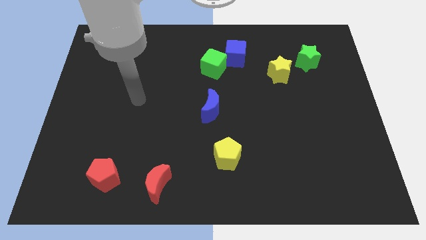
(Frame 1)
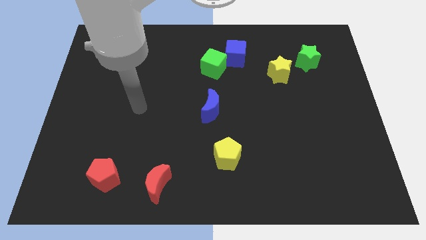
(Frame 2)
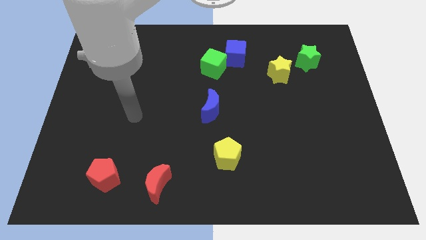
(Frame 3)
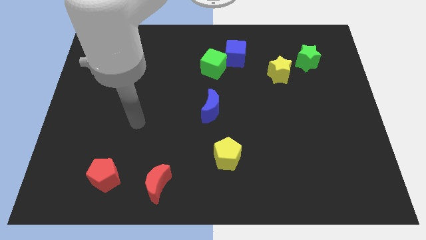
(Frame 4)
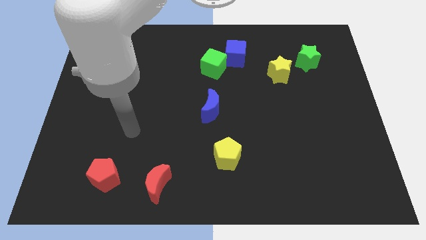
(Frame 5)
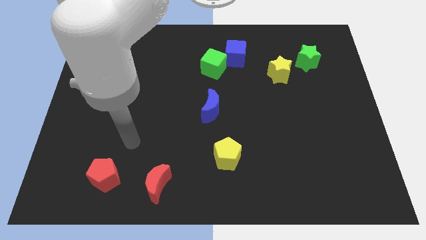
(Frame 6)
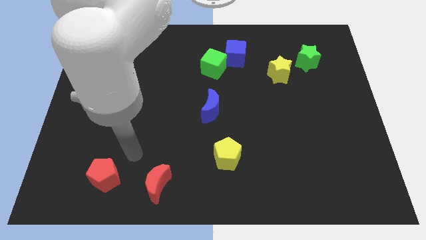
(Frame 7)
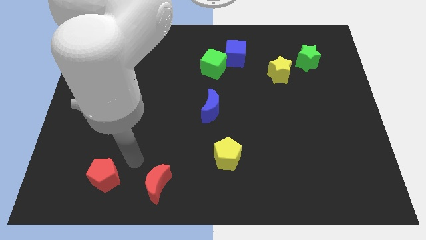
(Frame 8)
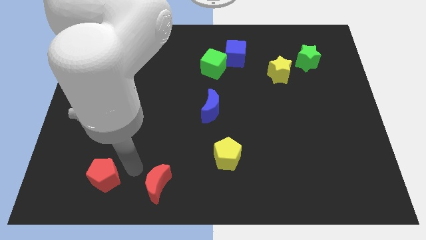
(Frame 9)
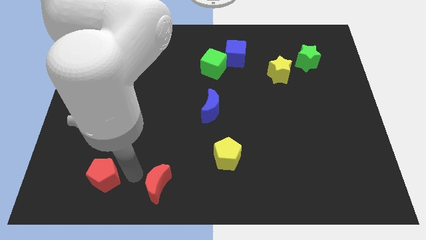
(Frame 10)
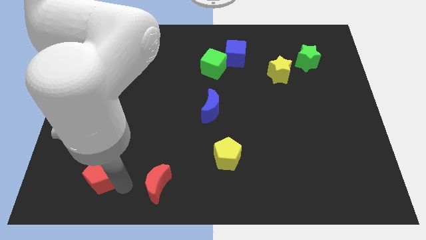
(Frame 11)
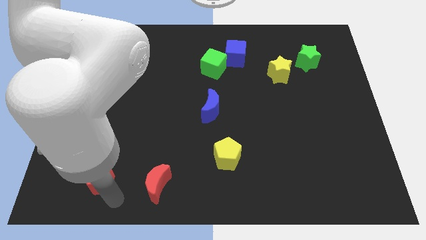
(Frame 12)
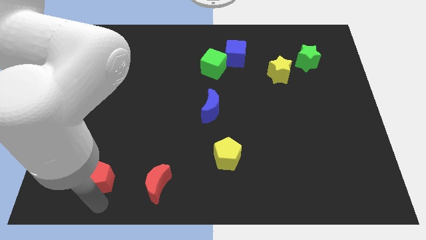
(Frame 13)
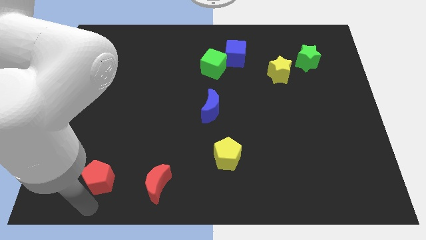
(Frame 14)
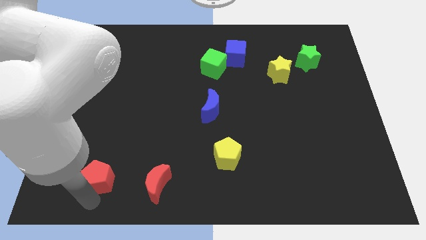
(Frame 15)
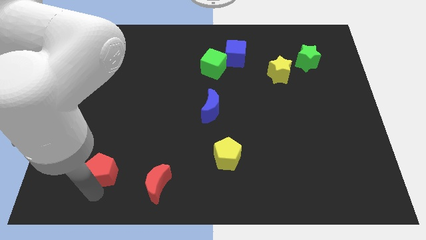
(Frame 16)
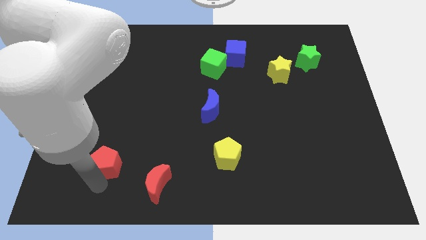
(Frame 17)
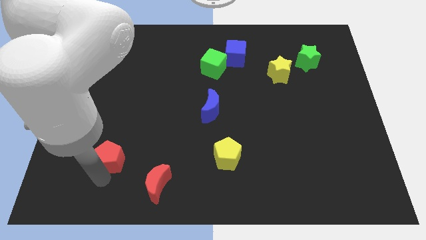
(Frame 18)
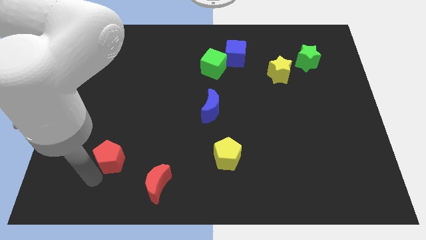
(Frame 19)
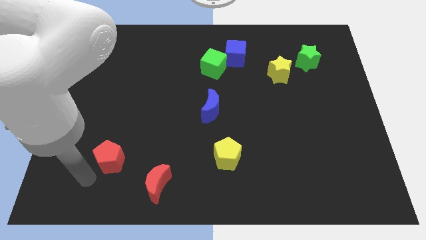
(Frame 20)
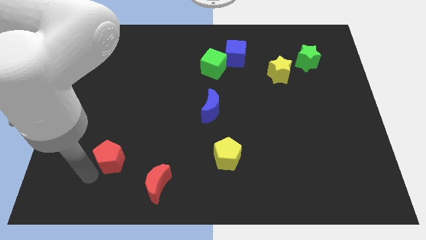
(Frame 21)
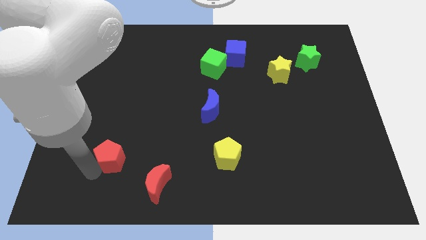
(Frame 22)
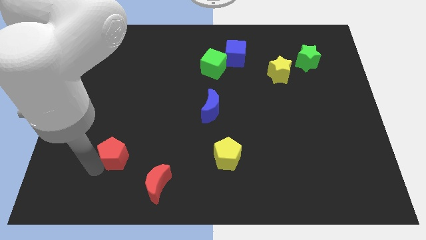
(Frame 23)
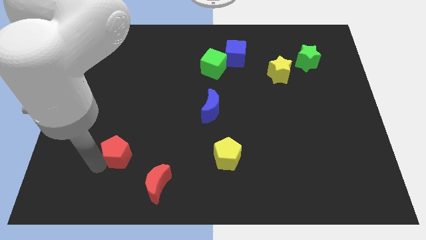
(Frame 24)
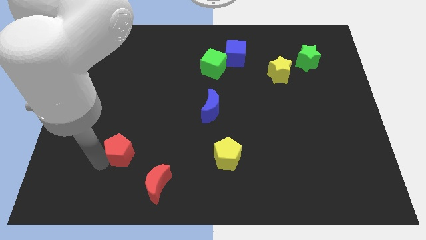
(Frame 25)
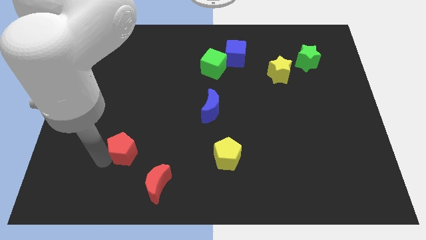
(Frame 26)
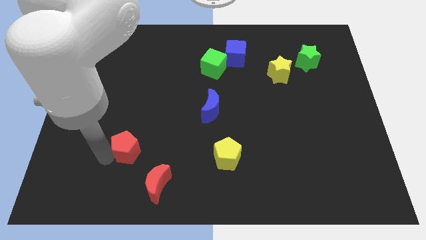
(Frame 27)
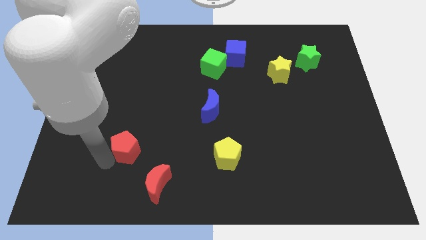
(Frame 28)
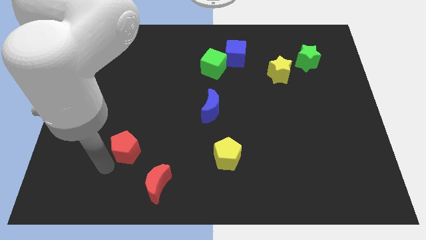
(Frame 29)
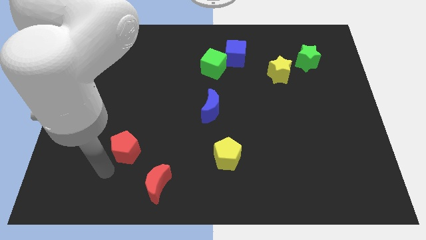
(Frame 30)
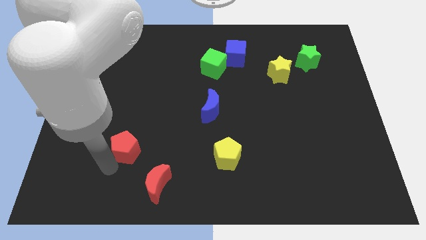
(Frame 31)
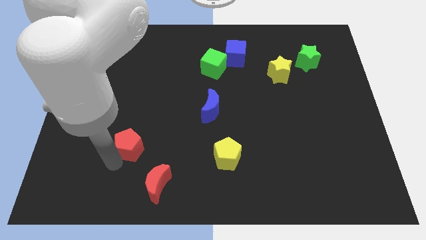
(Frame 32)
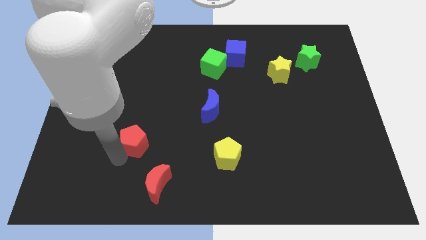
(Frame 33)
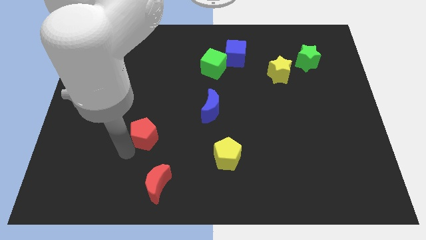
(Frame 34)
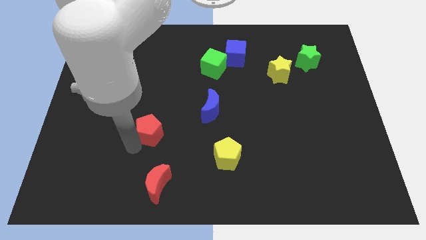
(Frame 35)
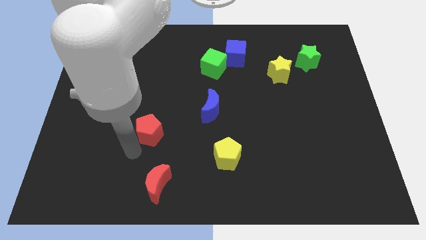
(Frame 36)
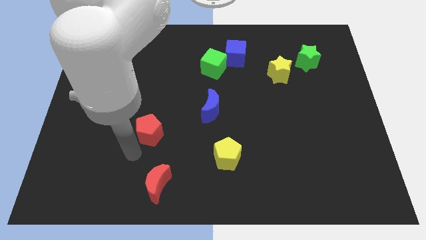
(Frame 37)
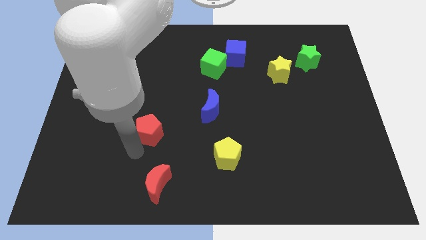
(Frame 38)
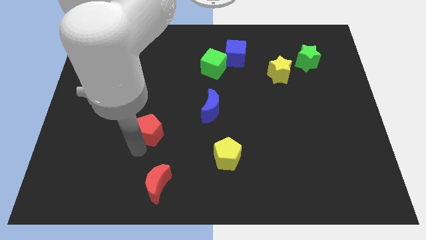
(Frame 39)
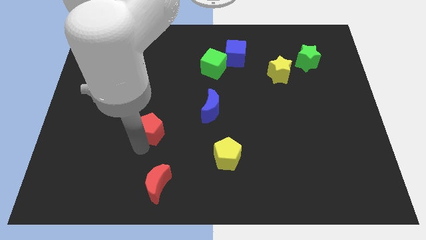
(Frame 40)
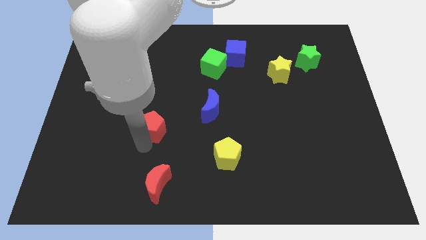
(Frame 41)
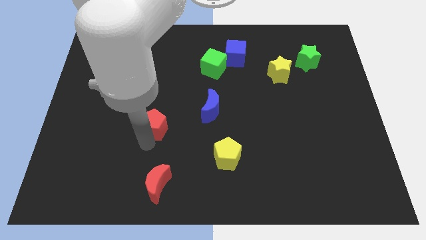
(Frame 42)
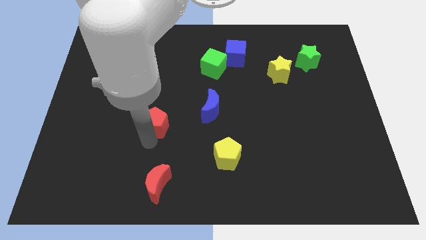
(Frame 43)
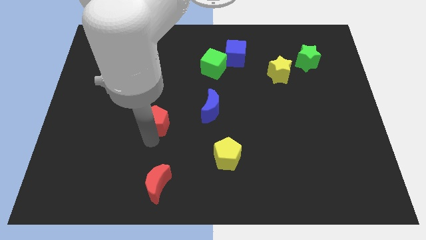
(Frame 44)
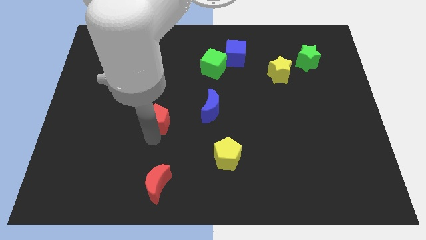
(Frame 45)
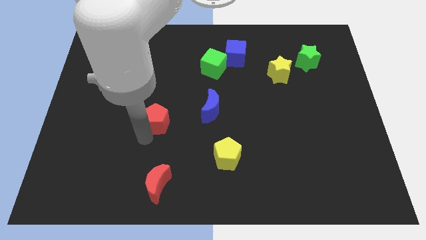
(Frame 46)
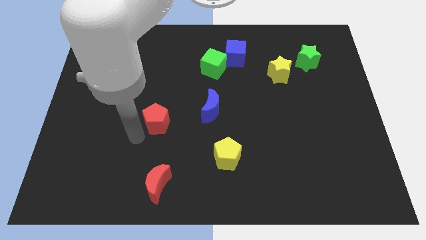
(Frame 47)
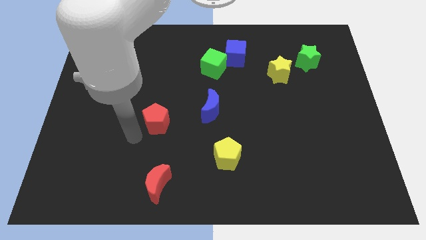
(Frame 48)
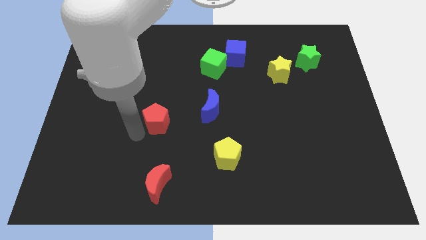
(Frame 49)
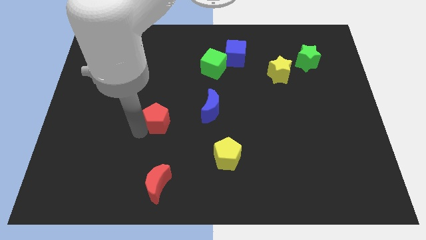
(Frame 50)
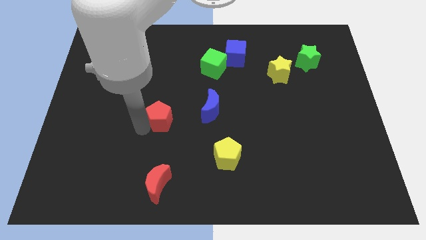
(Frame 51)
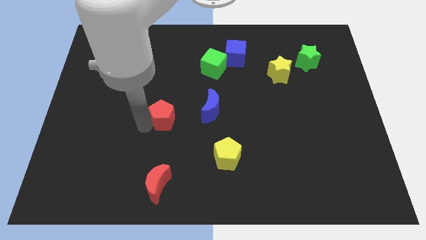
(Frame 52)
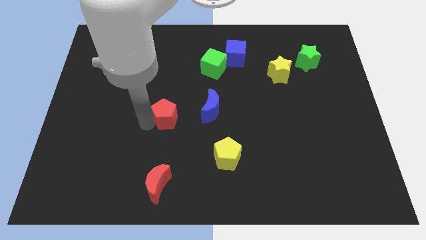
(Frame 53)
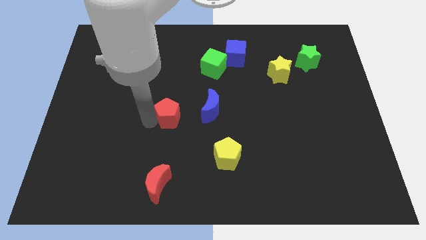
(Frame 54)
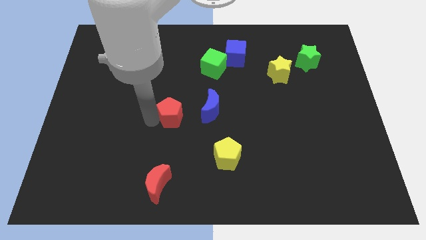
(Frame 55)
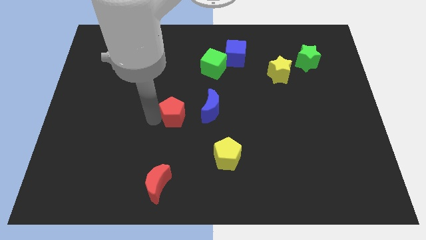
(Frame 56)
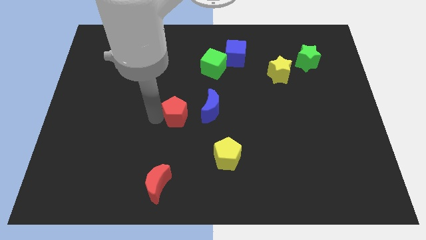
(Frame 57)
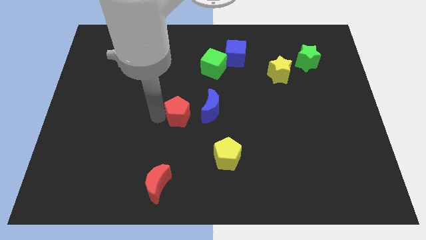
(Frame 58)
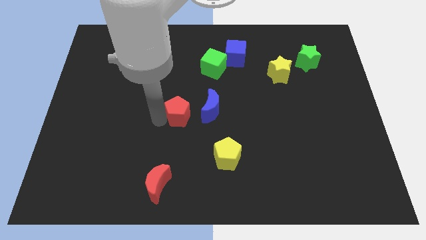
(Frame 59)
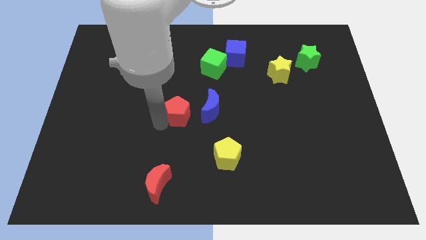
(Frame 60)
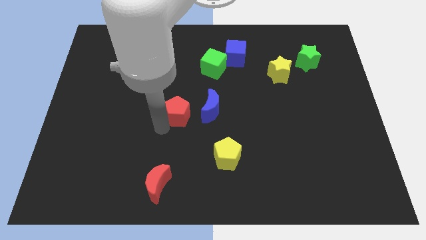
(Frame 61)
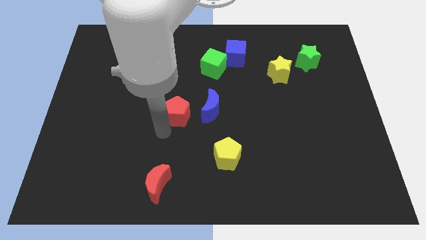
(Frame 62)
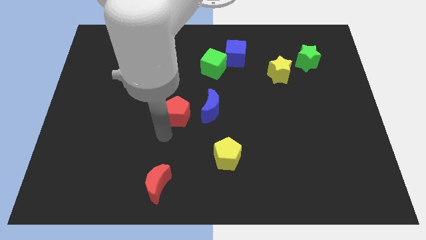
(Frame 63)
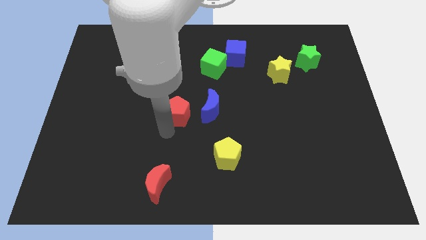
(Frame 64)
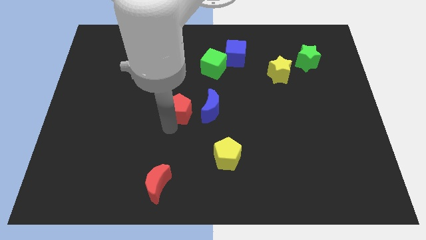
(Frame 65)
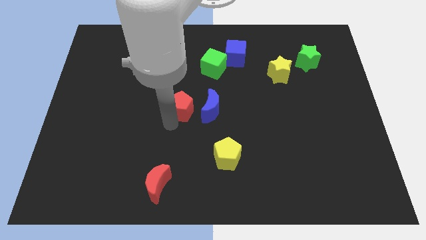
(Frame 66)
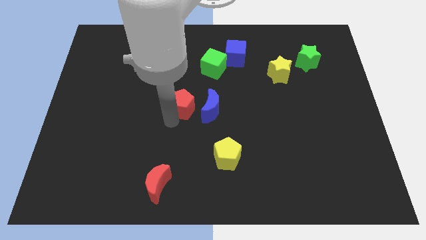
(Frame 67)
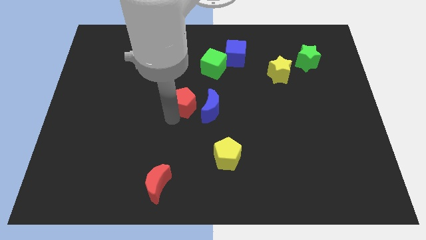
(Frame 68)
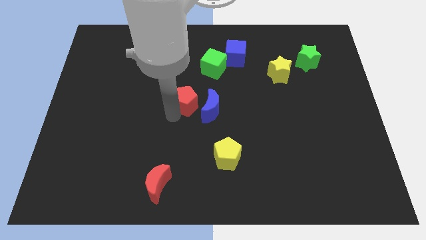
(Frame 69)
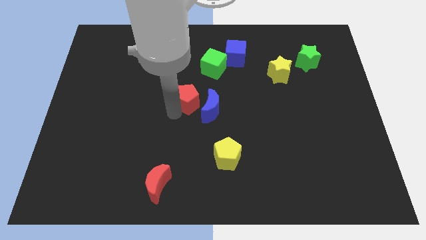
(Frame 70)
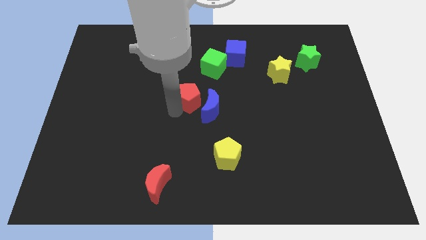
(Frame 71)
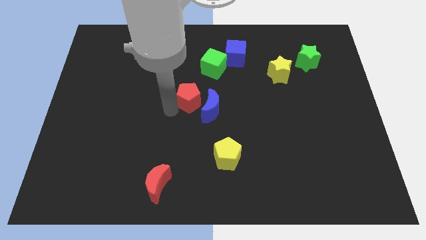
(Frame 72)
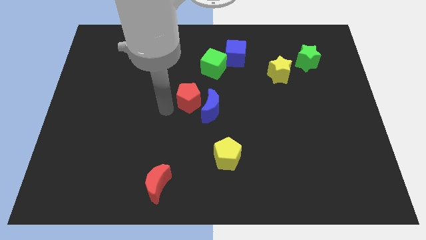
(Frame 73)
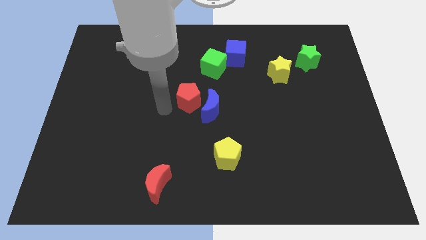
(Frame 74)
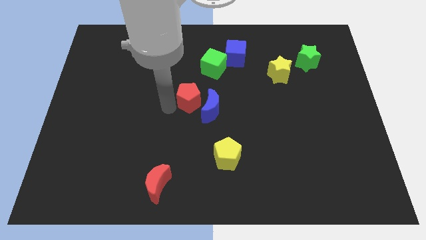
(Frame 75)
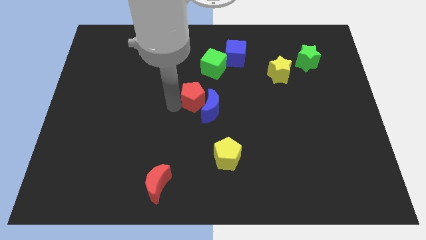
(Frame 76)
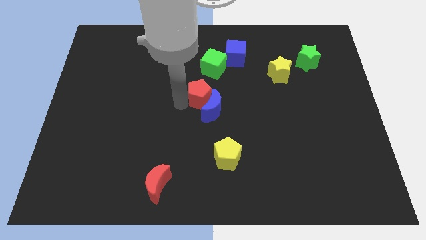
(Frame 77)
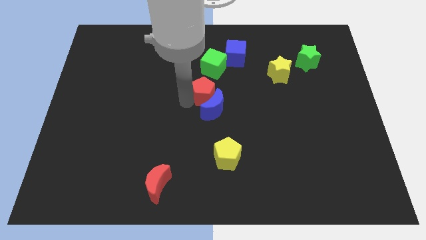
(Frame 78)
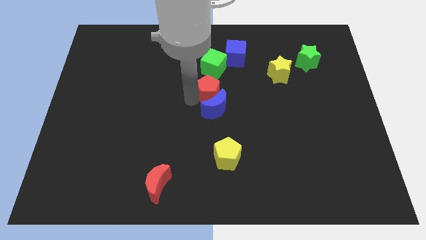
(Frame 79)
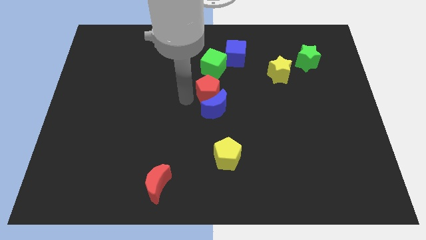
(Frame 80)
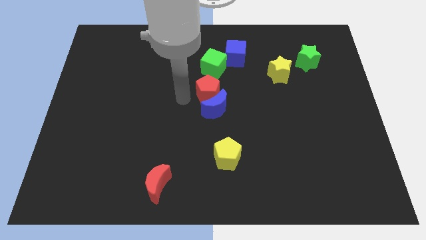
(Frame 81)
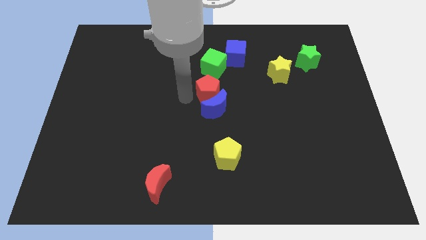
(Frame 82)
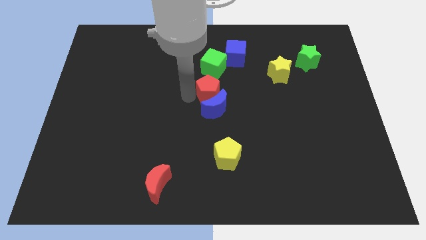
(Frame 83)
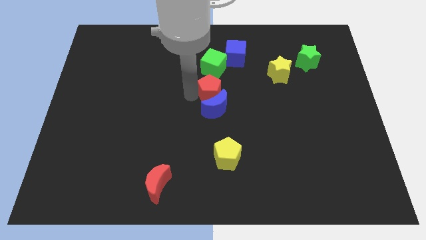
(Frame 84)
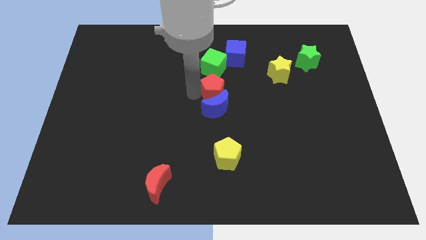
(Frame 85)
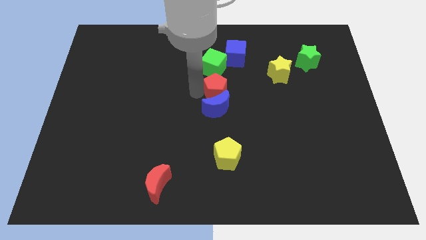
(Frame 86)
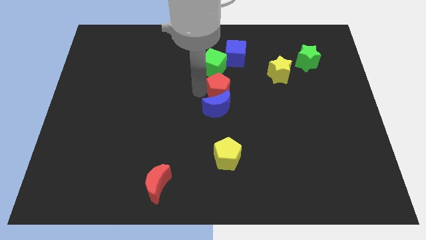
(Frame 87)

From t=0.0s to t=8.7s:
put the red pentagon to the bottom of the blue cube
